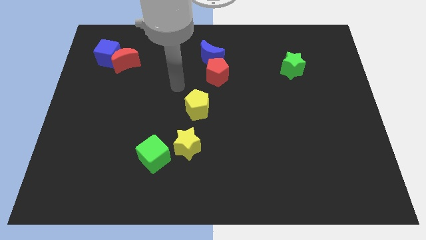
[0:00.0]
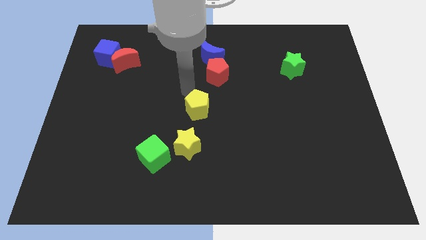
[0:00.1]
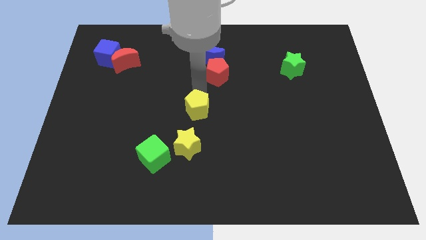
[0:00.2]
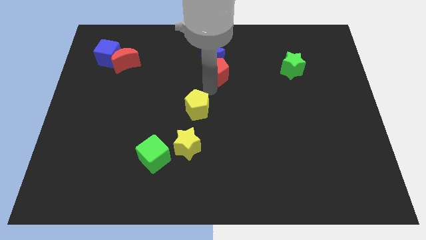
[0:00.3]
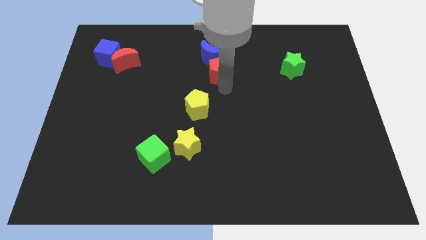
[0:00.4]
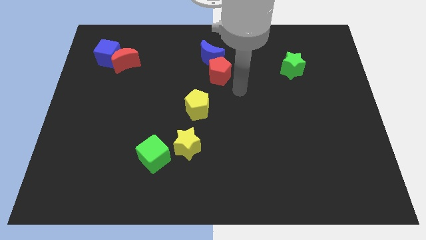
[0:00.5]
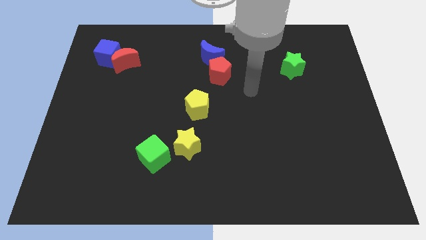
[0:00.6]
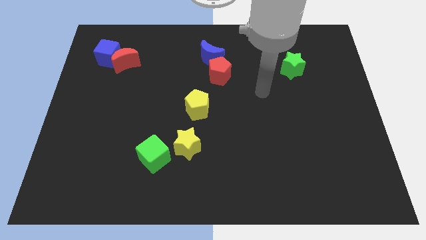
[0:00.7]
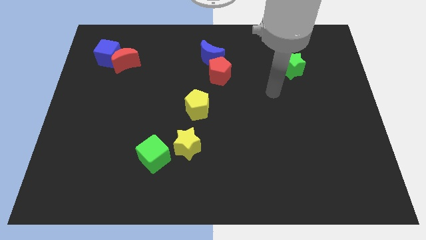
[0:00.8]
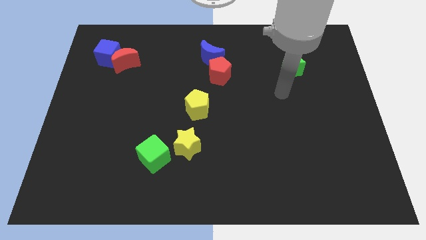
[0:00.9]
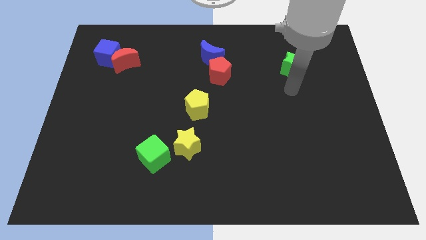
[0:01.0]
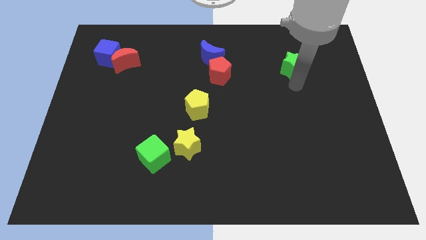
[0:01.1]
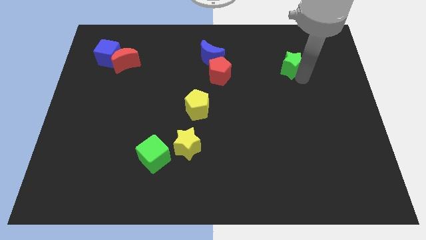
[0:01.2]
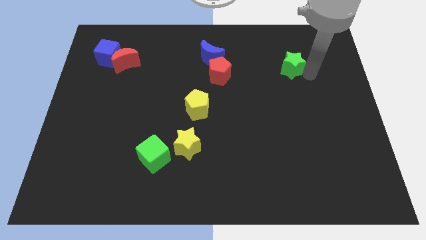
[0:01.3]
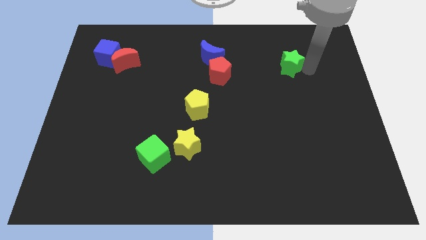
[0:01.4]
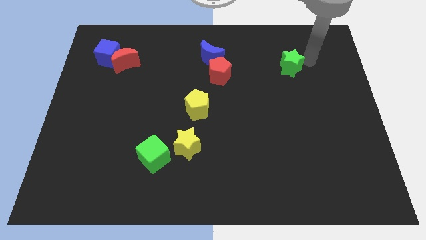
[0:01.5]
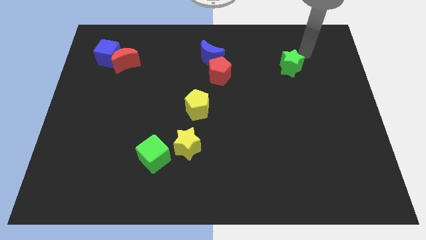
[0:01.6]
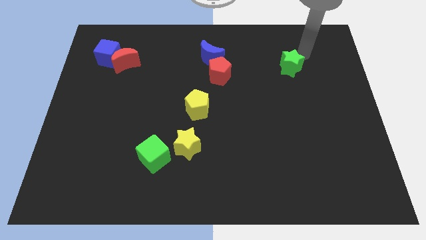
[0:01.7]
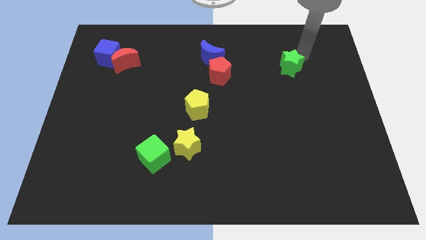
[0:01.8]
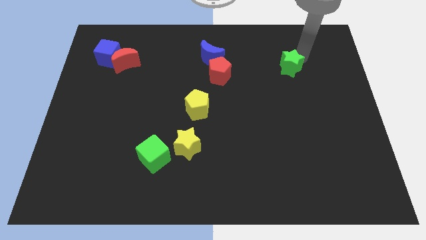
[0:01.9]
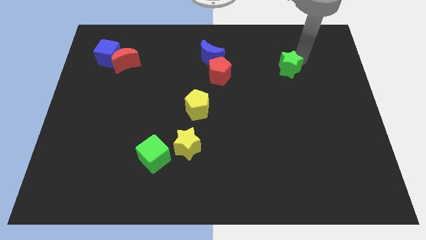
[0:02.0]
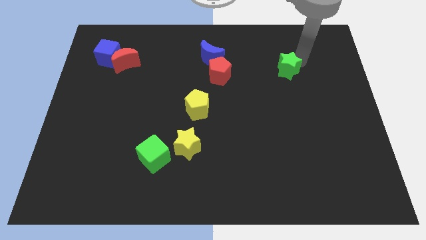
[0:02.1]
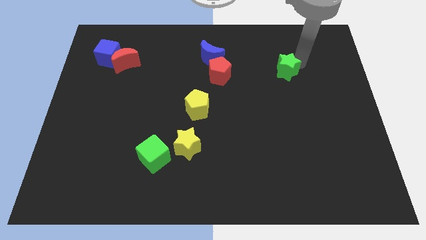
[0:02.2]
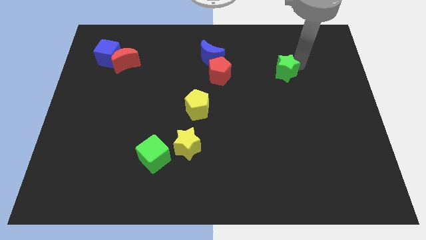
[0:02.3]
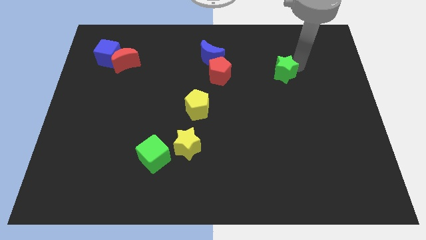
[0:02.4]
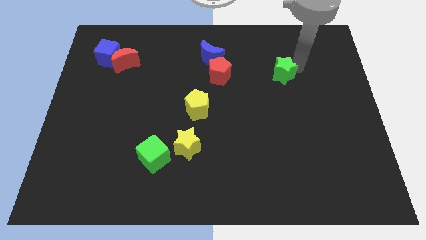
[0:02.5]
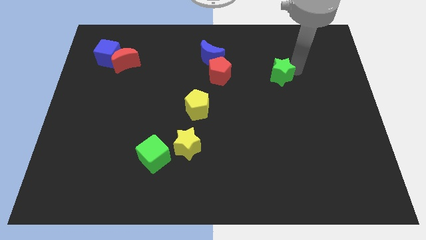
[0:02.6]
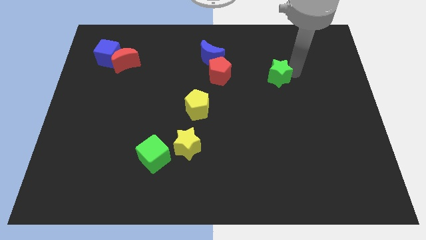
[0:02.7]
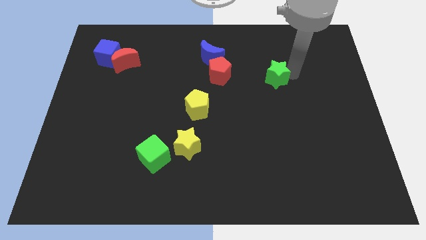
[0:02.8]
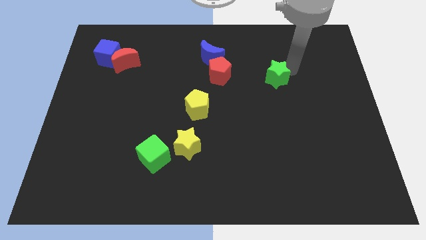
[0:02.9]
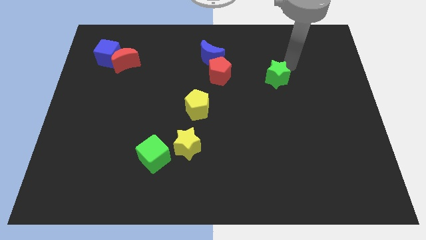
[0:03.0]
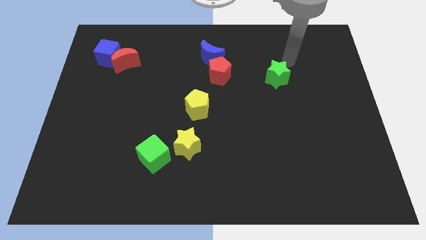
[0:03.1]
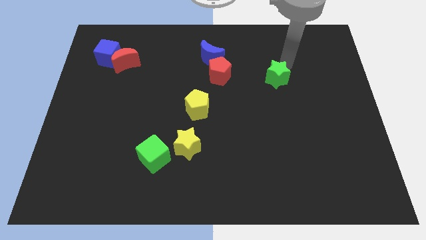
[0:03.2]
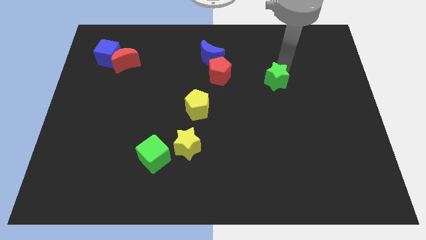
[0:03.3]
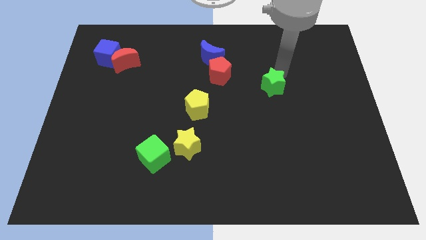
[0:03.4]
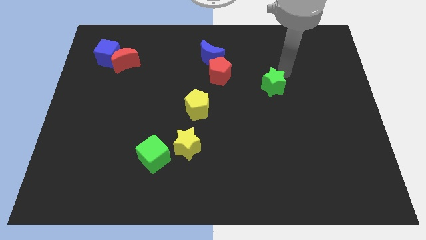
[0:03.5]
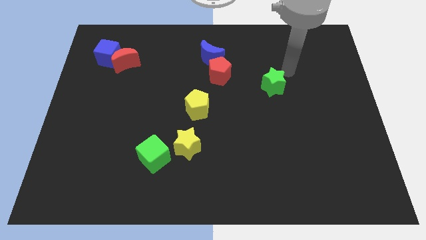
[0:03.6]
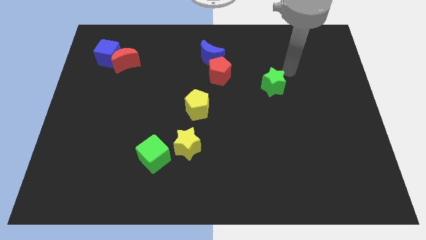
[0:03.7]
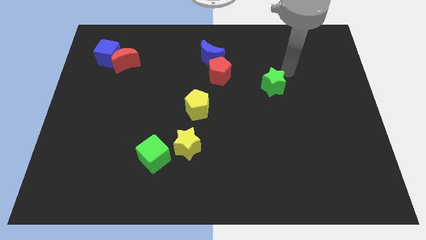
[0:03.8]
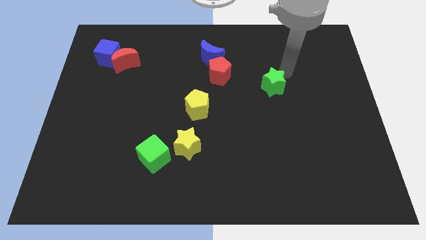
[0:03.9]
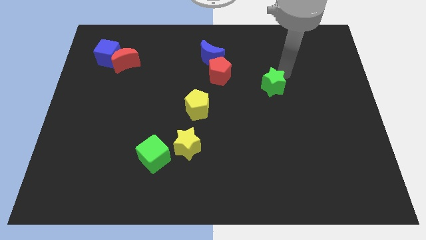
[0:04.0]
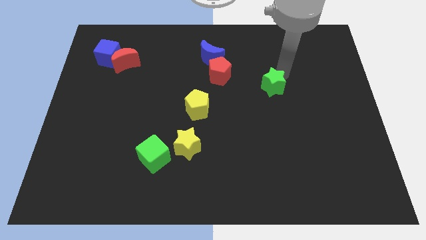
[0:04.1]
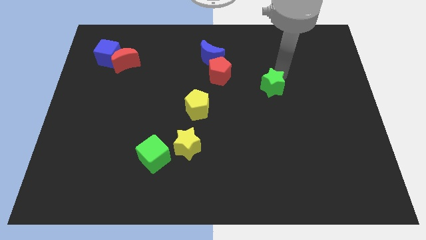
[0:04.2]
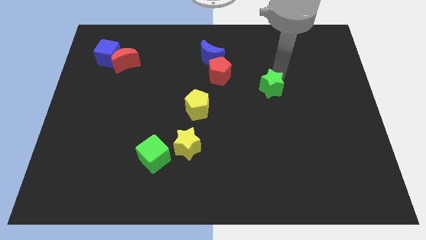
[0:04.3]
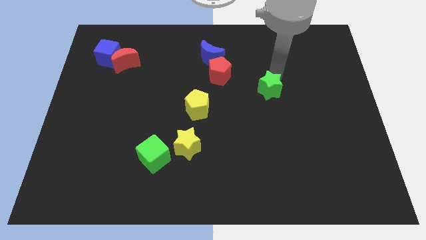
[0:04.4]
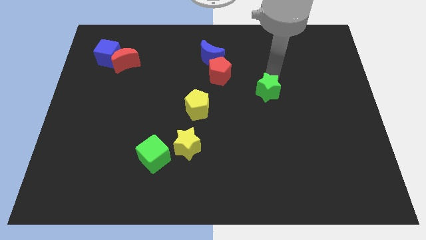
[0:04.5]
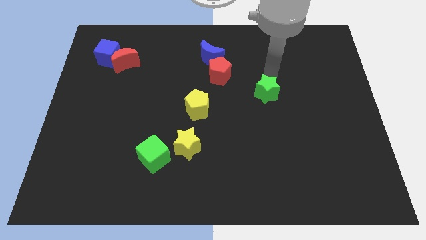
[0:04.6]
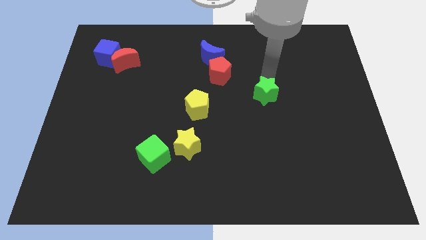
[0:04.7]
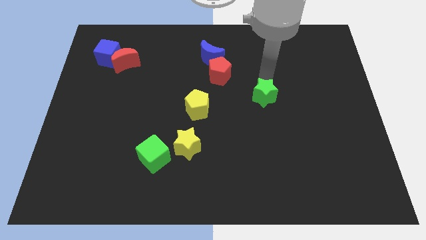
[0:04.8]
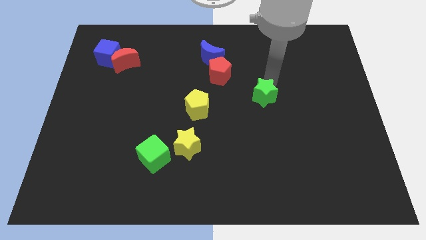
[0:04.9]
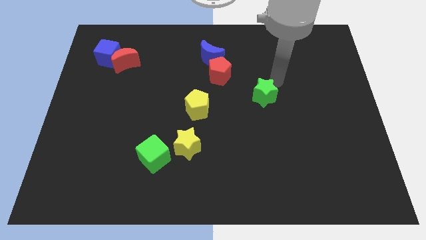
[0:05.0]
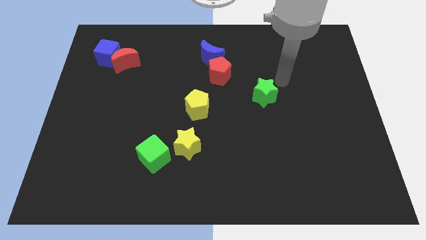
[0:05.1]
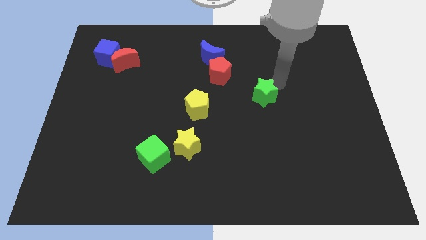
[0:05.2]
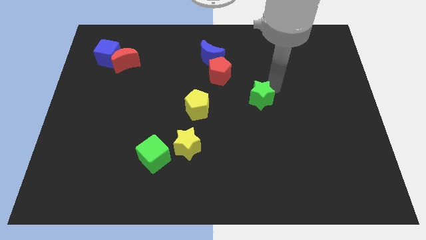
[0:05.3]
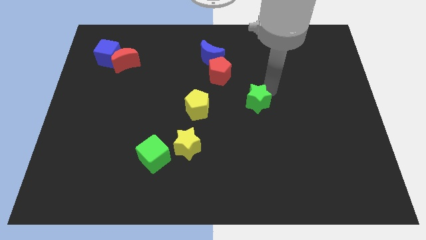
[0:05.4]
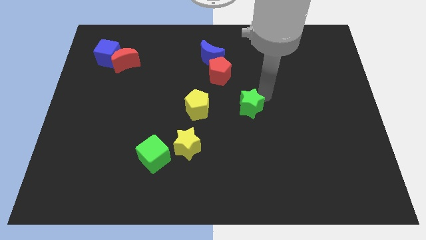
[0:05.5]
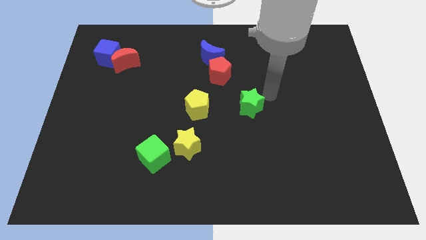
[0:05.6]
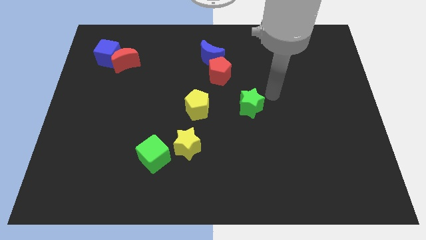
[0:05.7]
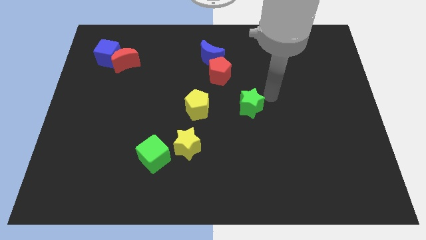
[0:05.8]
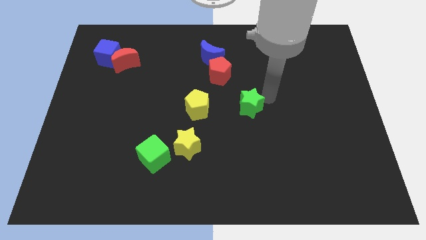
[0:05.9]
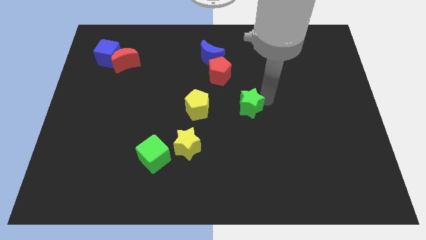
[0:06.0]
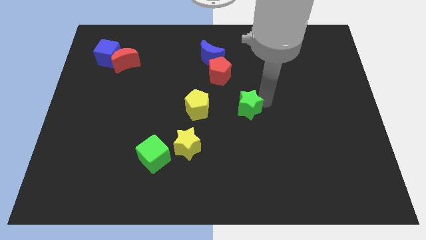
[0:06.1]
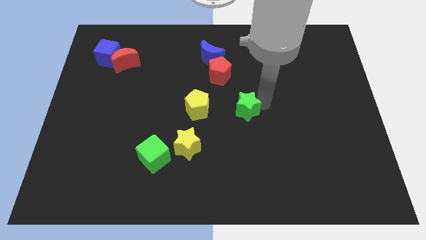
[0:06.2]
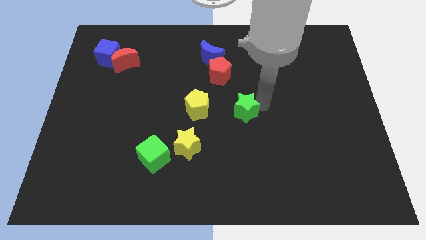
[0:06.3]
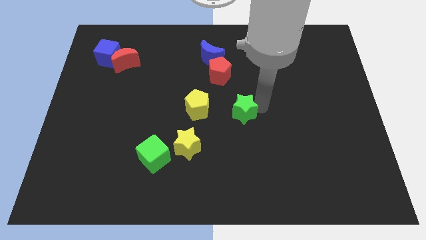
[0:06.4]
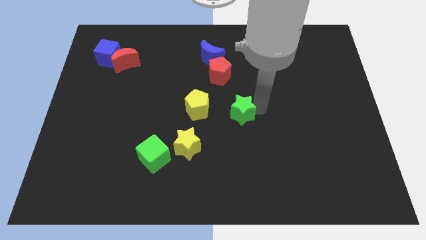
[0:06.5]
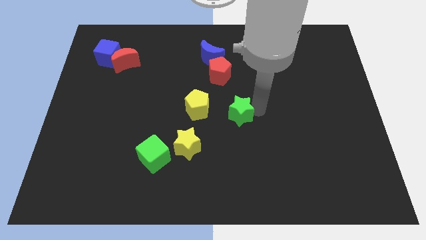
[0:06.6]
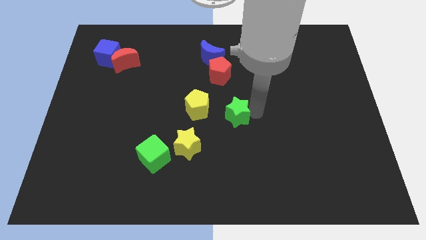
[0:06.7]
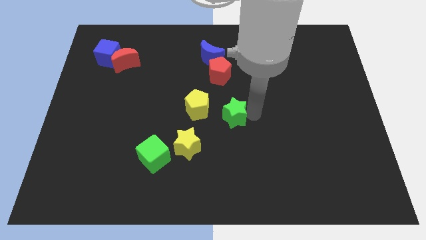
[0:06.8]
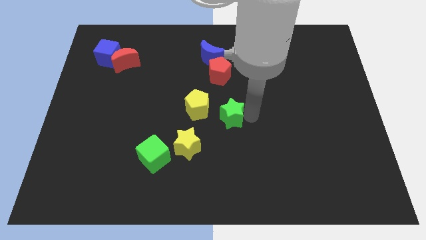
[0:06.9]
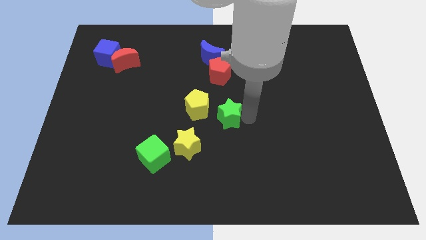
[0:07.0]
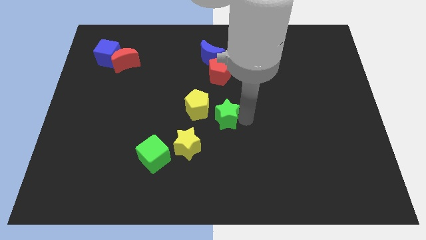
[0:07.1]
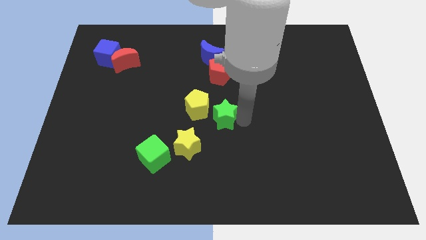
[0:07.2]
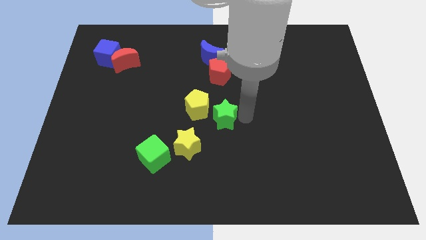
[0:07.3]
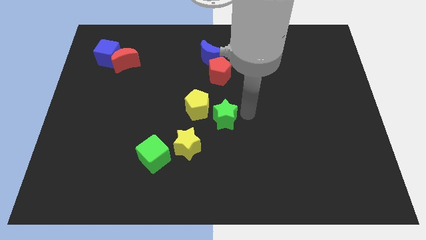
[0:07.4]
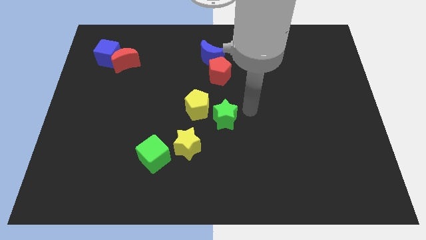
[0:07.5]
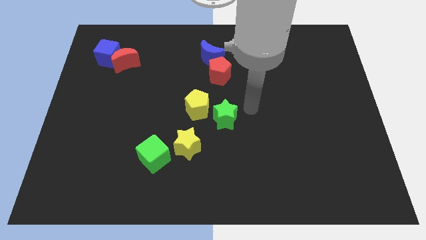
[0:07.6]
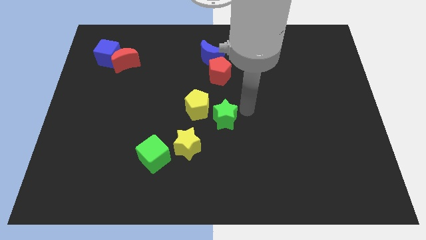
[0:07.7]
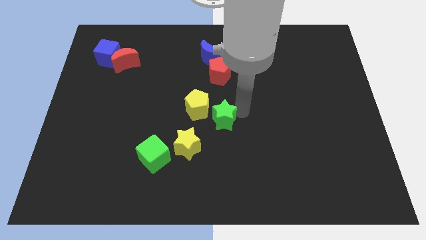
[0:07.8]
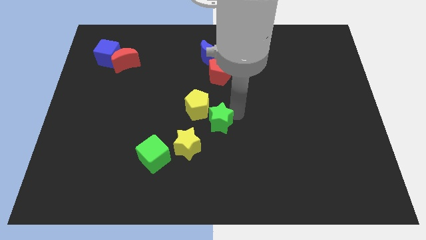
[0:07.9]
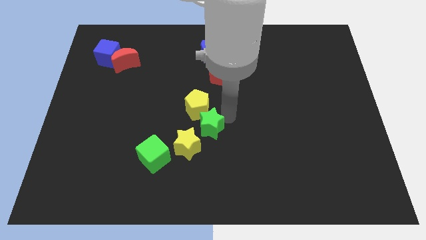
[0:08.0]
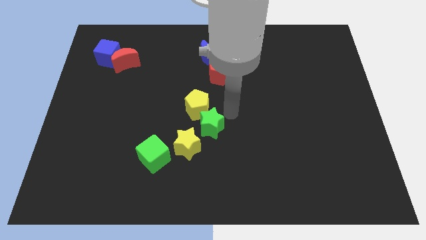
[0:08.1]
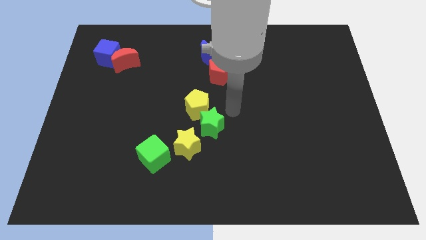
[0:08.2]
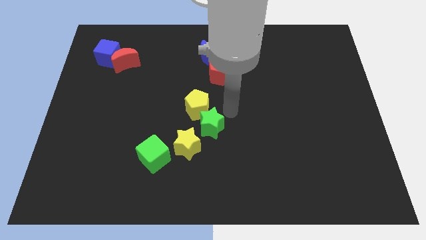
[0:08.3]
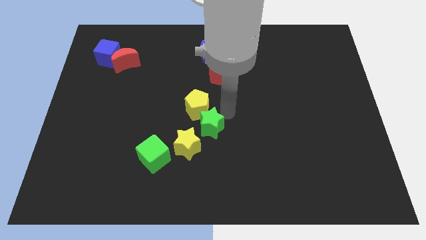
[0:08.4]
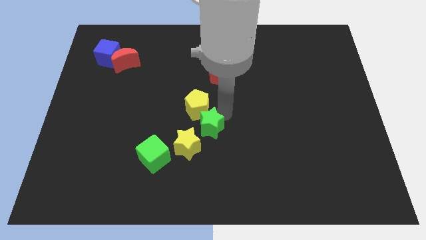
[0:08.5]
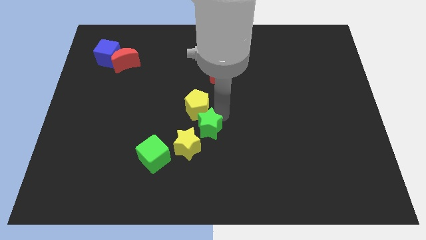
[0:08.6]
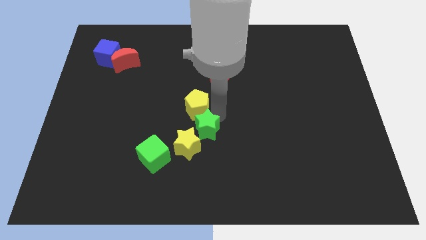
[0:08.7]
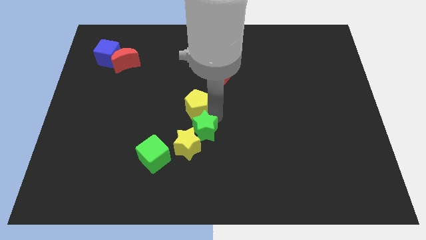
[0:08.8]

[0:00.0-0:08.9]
move the green star towards the yellow star
